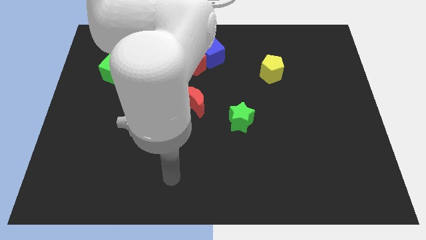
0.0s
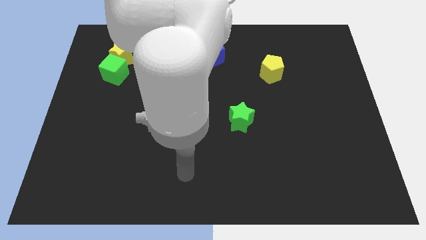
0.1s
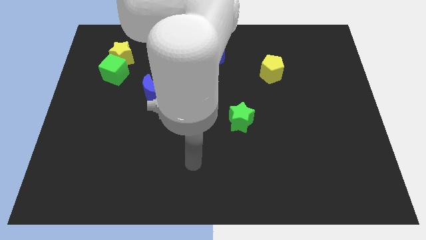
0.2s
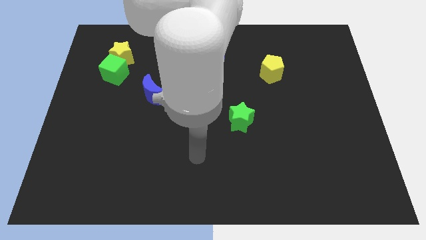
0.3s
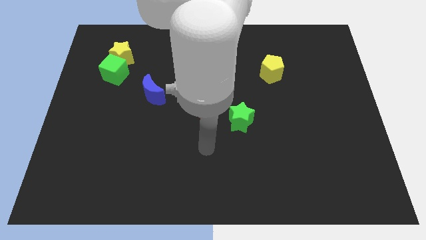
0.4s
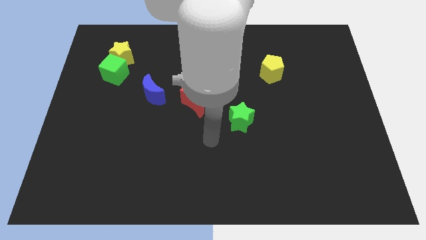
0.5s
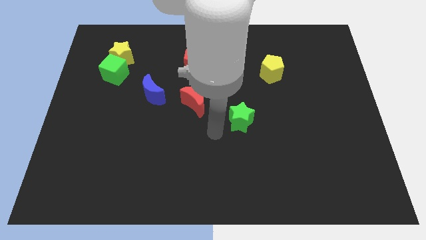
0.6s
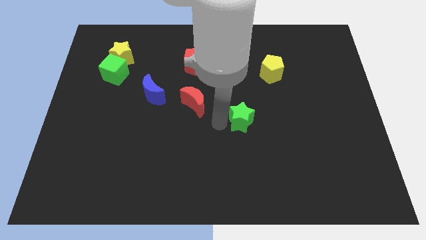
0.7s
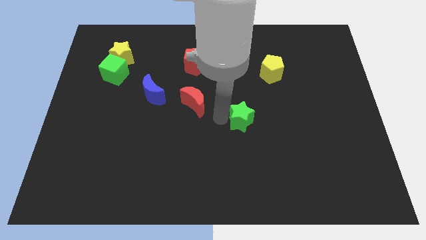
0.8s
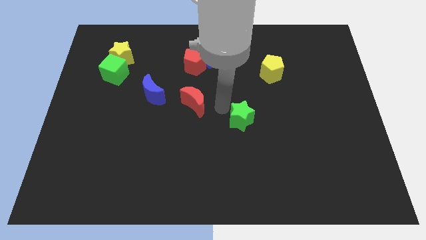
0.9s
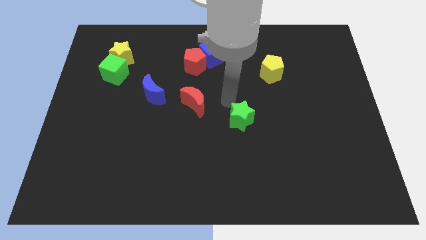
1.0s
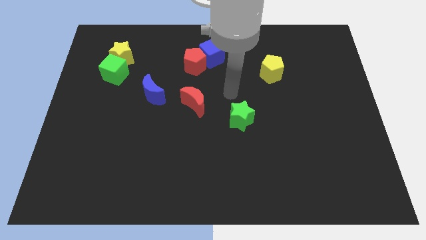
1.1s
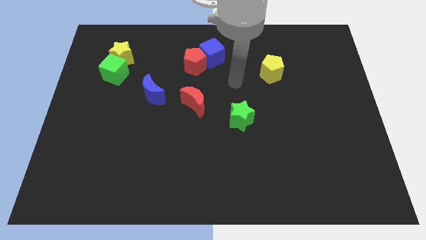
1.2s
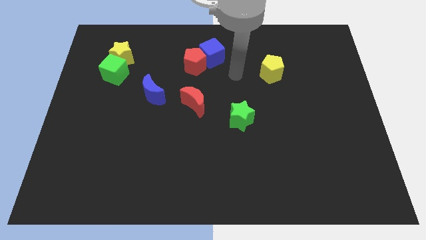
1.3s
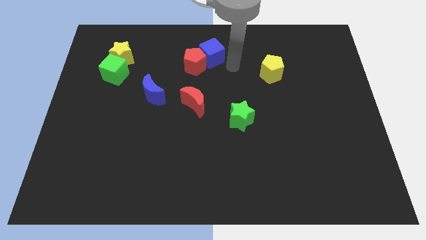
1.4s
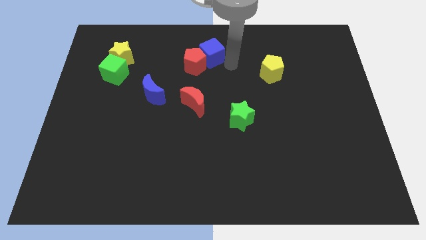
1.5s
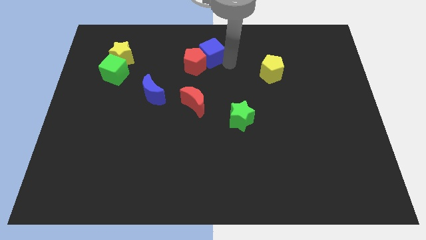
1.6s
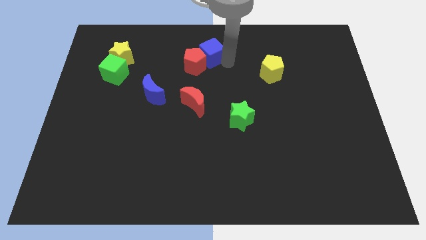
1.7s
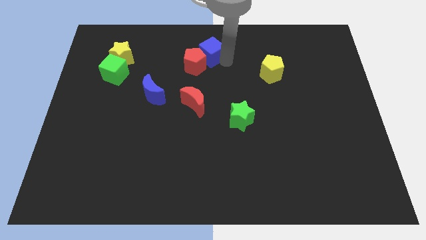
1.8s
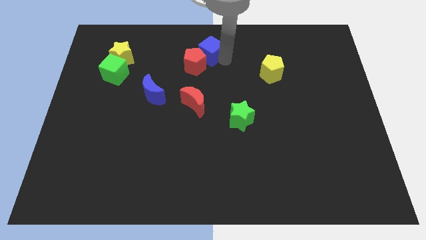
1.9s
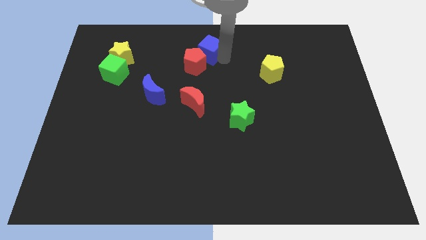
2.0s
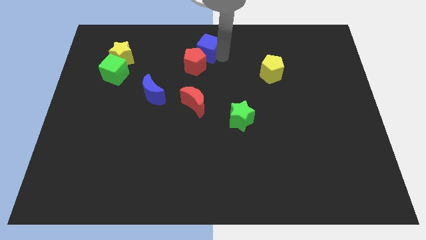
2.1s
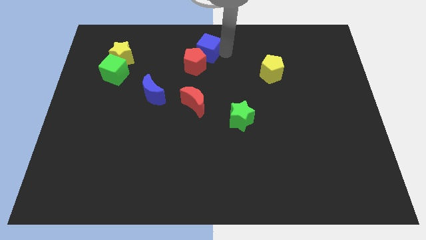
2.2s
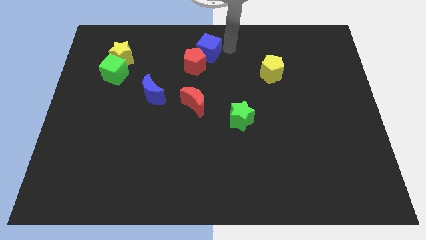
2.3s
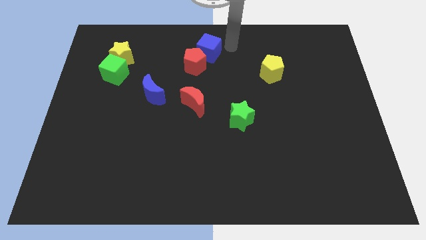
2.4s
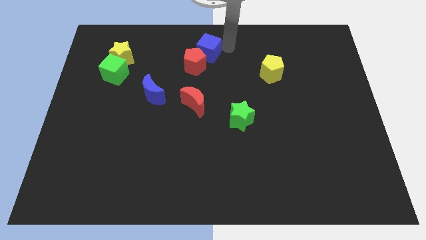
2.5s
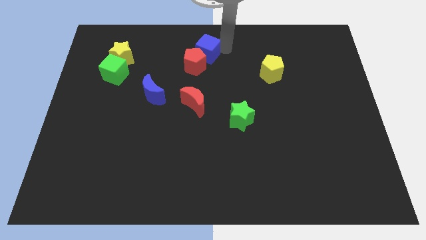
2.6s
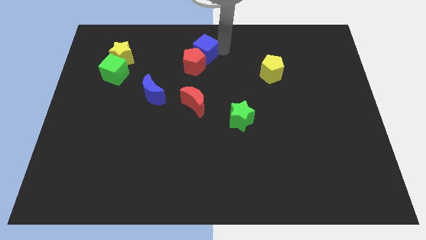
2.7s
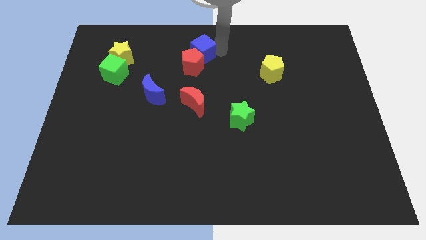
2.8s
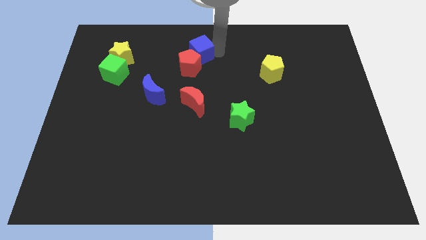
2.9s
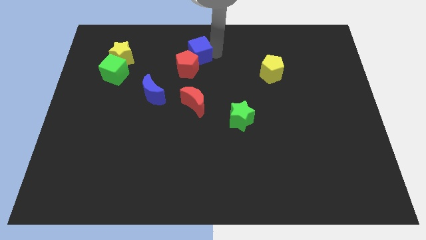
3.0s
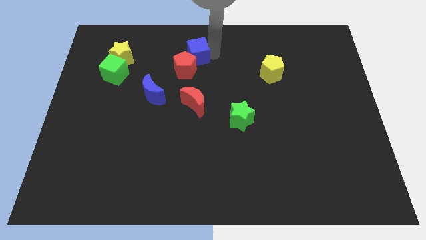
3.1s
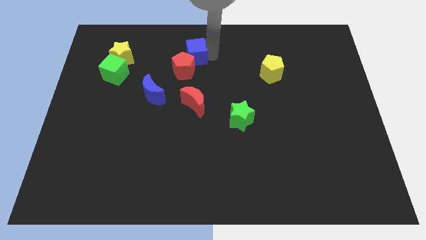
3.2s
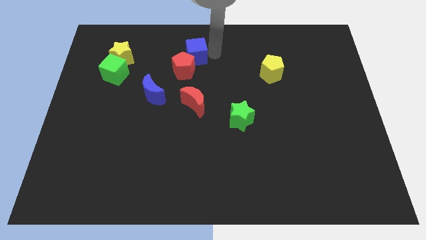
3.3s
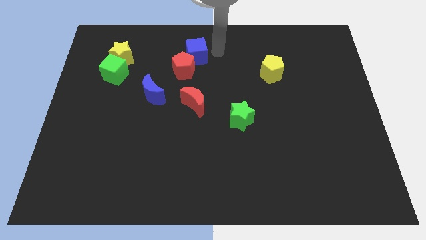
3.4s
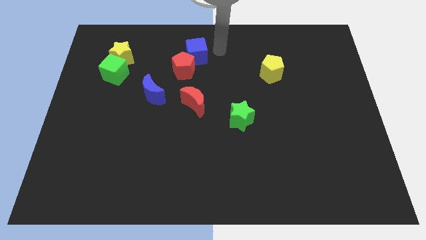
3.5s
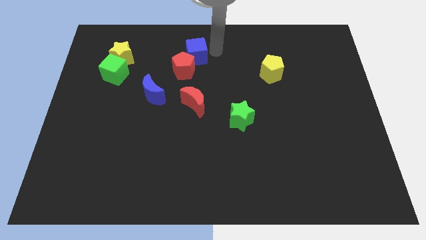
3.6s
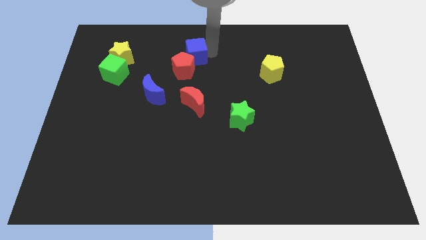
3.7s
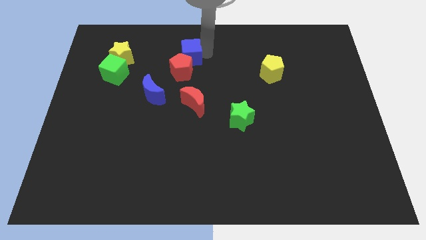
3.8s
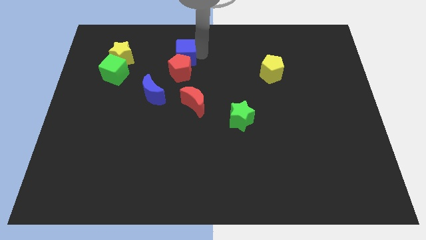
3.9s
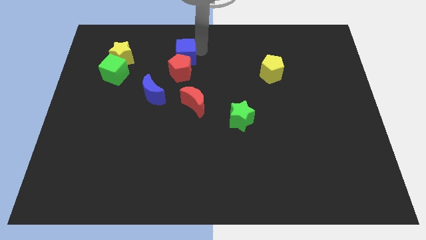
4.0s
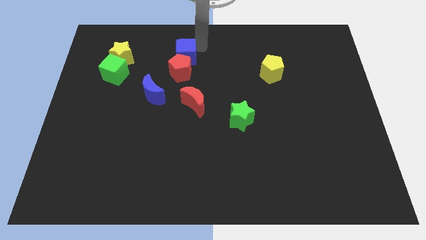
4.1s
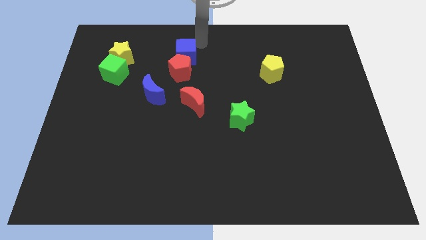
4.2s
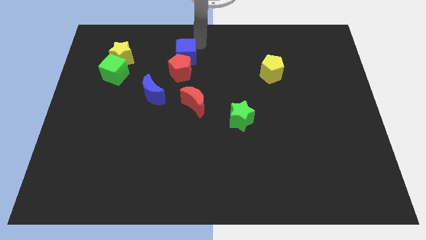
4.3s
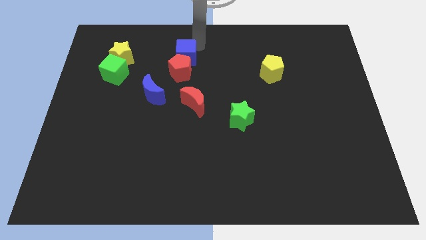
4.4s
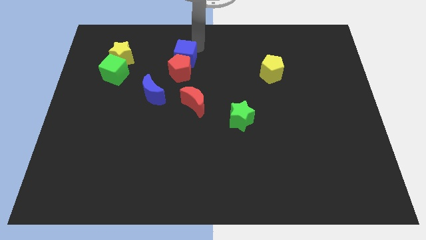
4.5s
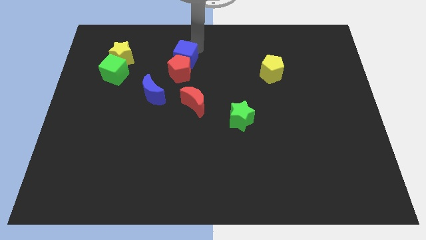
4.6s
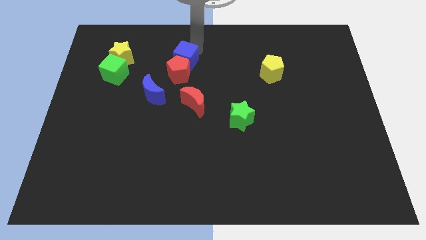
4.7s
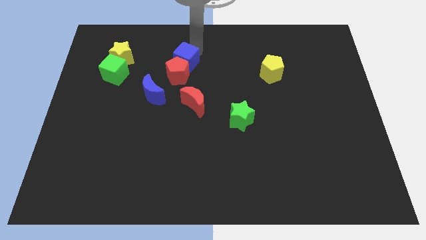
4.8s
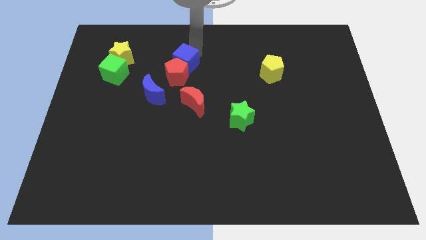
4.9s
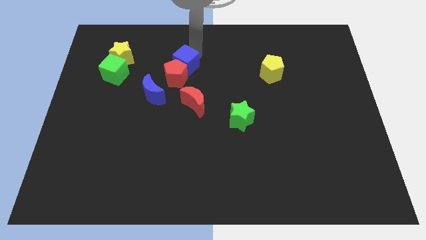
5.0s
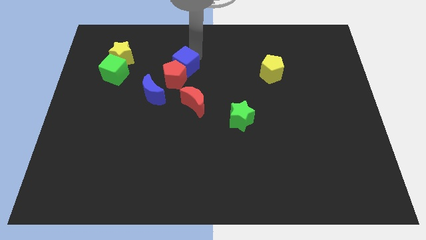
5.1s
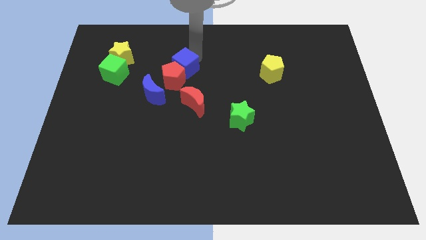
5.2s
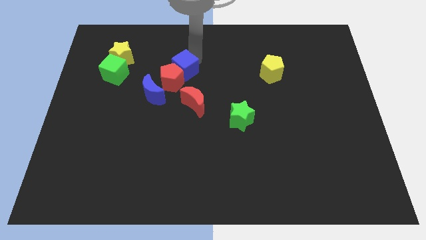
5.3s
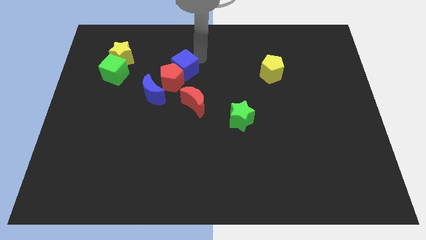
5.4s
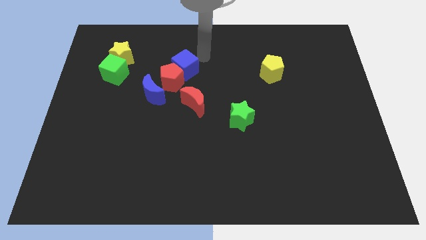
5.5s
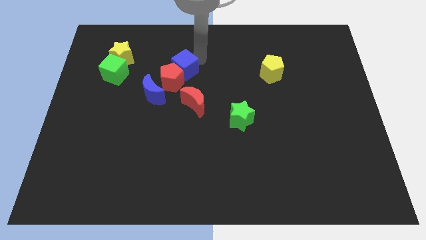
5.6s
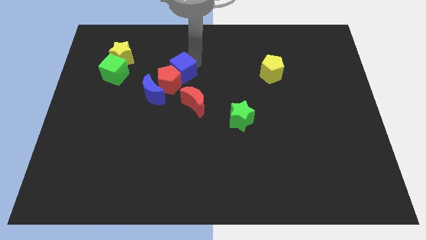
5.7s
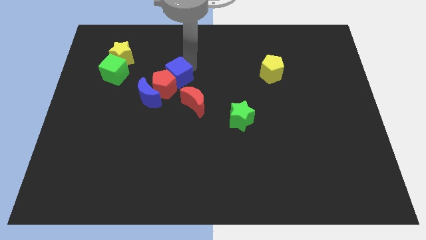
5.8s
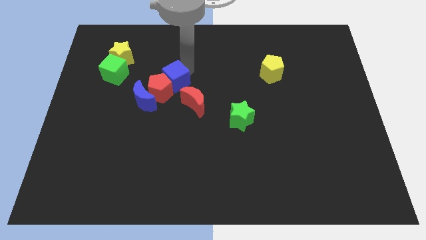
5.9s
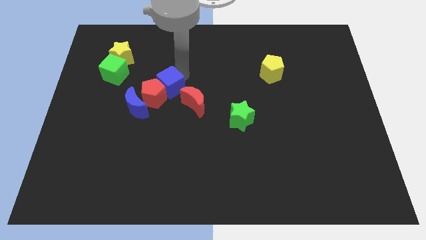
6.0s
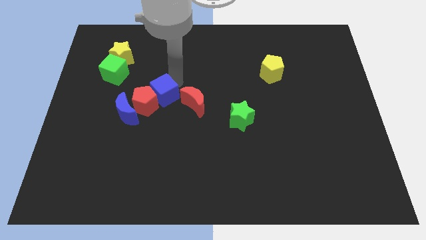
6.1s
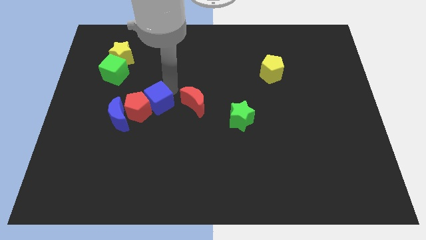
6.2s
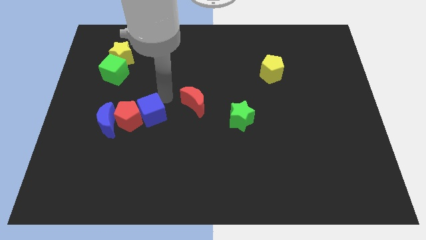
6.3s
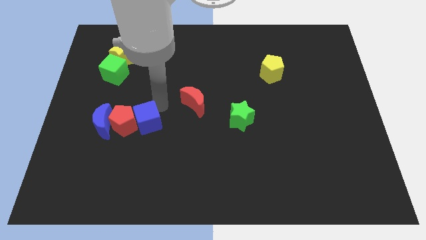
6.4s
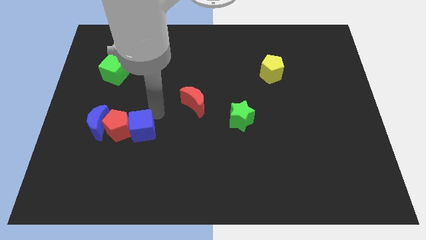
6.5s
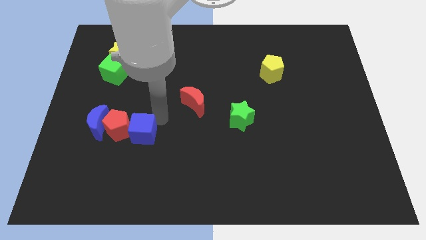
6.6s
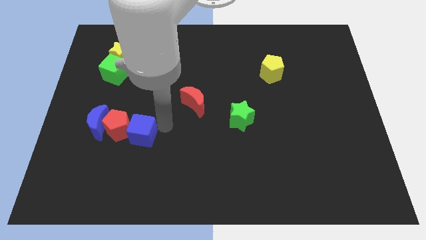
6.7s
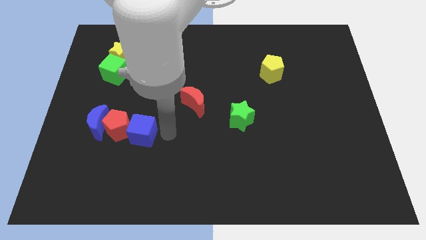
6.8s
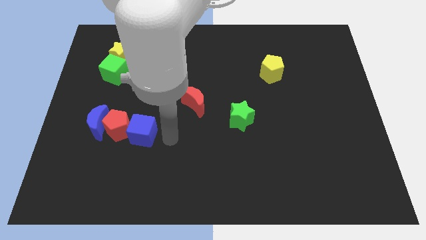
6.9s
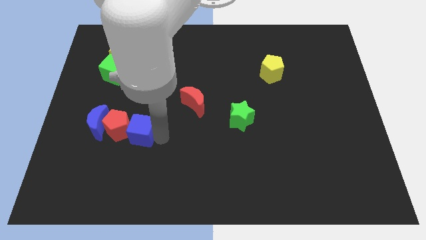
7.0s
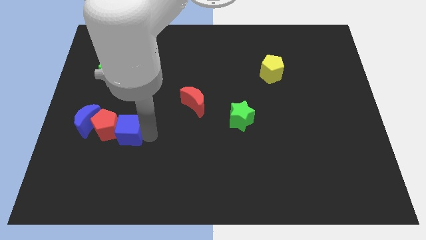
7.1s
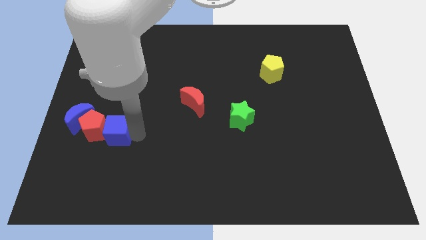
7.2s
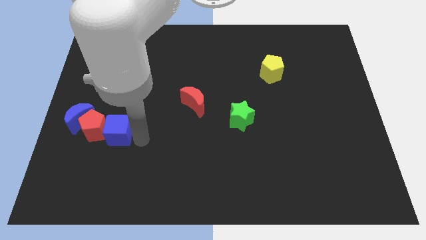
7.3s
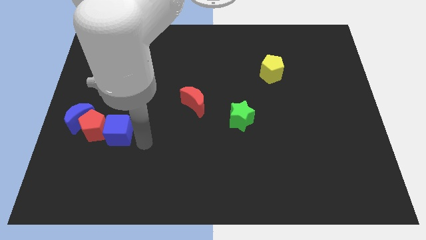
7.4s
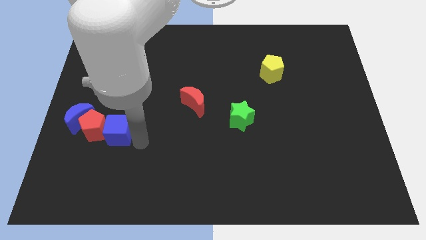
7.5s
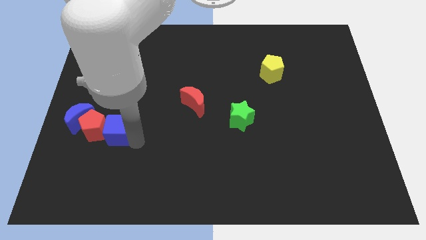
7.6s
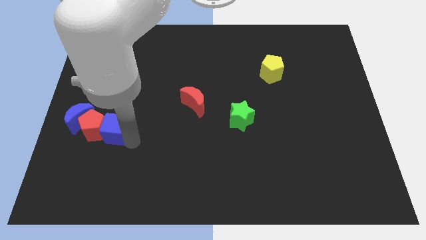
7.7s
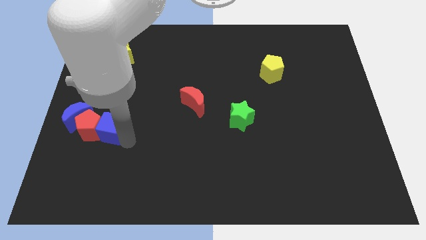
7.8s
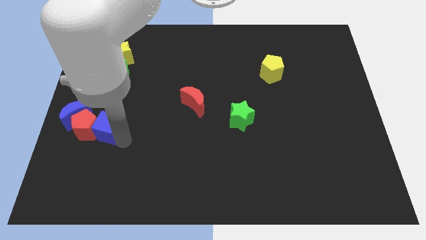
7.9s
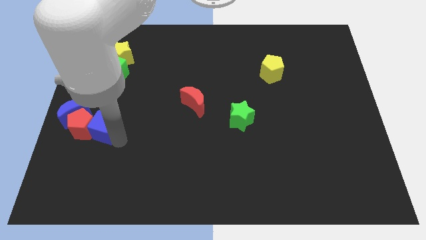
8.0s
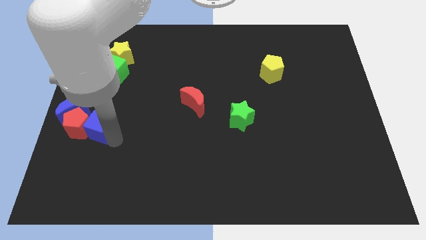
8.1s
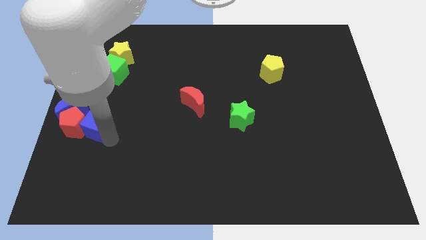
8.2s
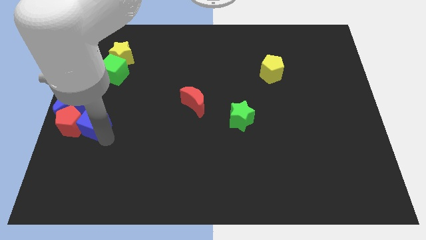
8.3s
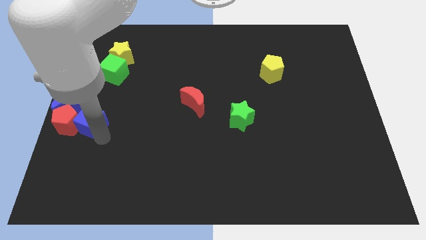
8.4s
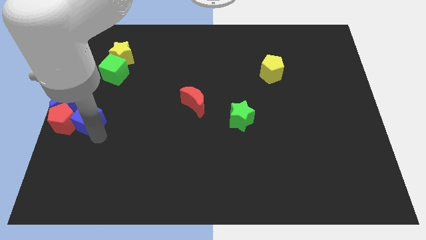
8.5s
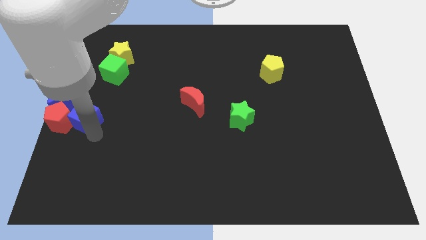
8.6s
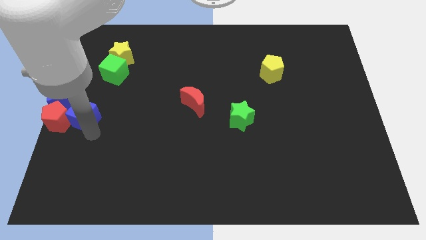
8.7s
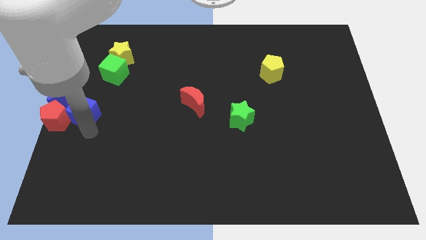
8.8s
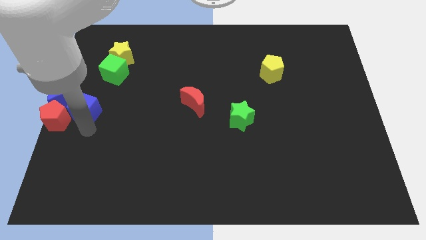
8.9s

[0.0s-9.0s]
put the blue cube next to the blue moon
